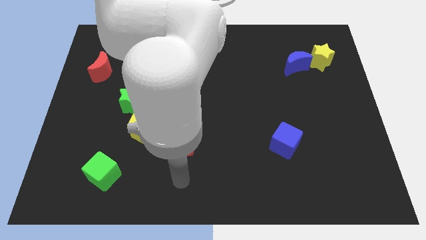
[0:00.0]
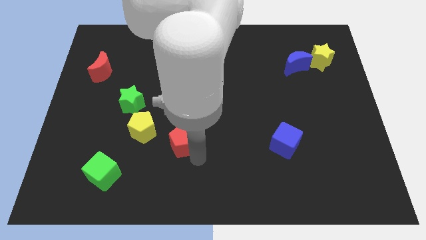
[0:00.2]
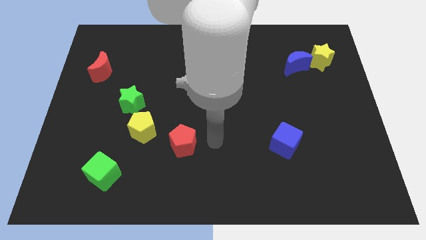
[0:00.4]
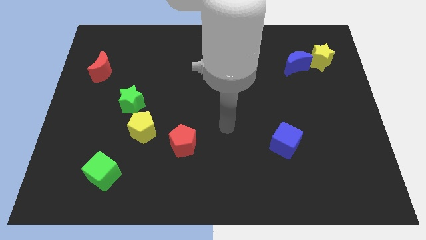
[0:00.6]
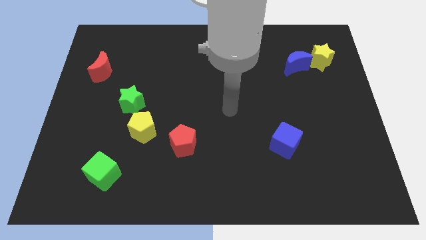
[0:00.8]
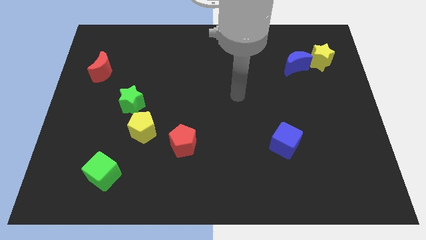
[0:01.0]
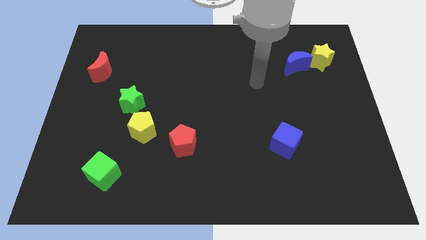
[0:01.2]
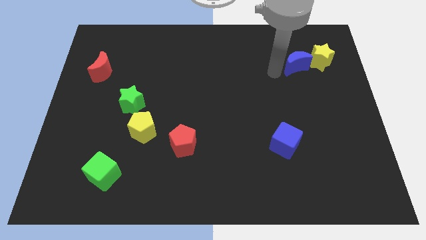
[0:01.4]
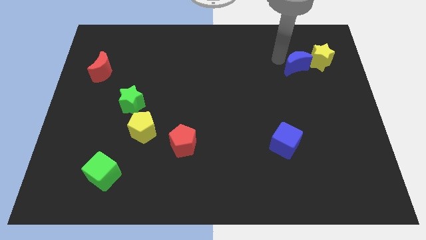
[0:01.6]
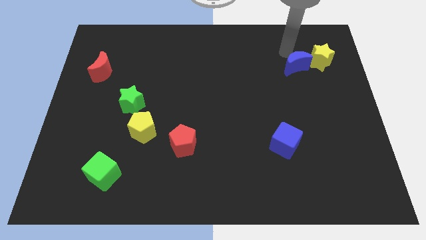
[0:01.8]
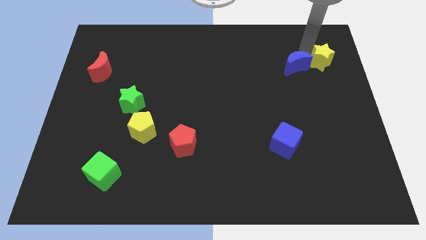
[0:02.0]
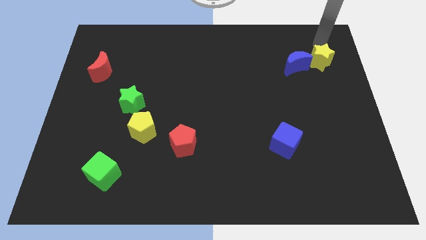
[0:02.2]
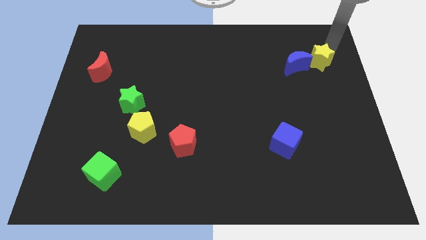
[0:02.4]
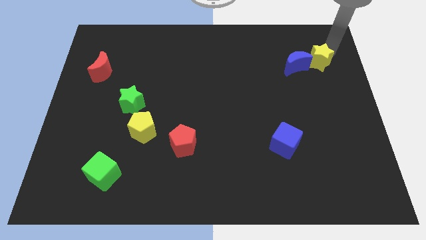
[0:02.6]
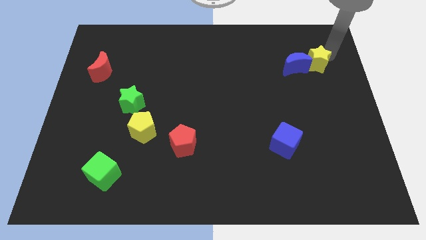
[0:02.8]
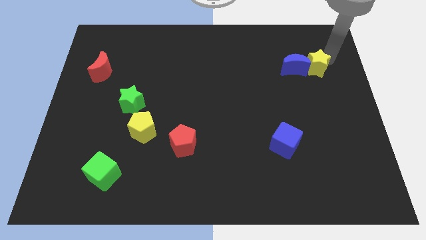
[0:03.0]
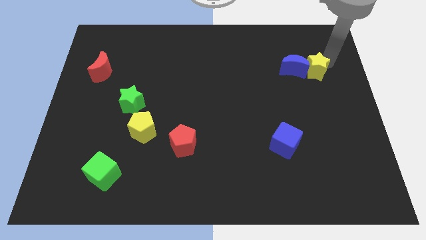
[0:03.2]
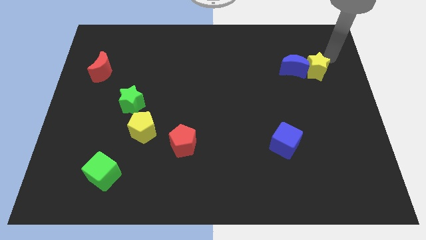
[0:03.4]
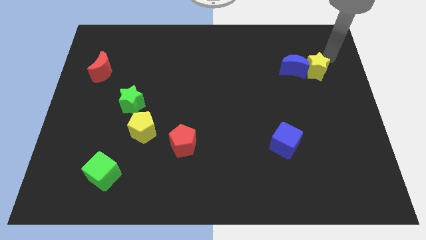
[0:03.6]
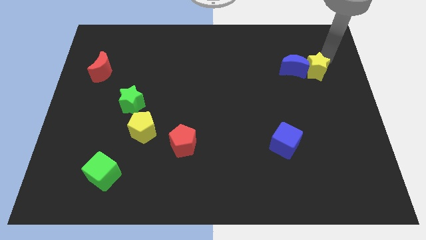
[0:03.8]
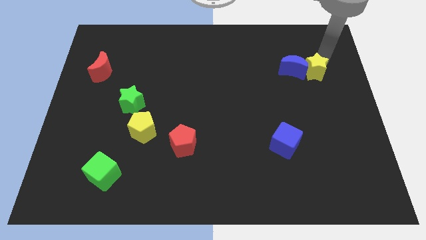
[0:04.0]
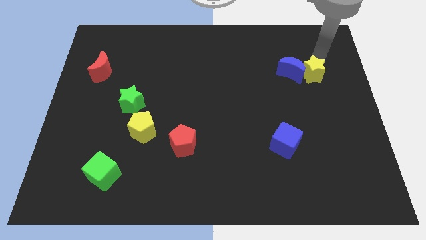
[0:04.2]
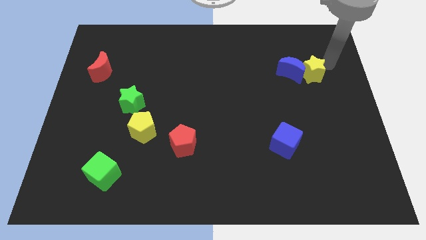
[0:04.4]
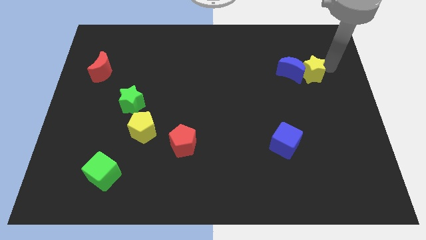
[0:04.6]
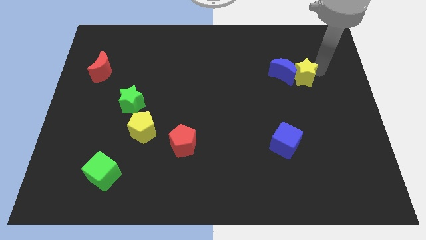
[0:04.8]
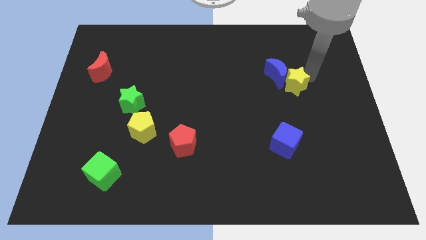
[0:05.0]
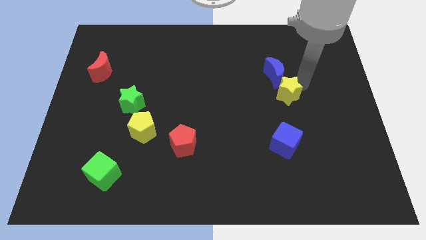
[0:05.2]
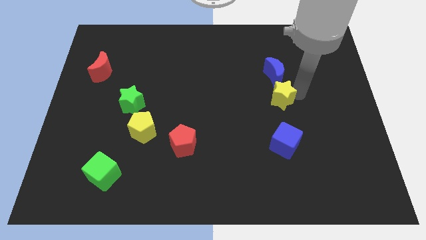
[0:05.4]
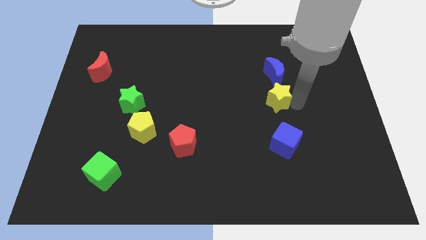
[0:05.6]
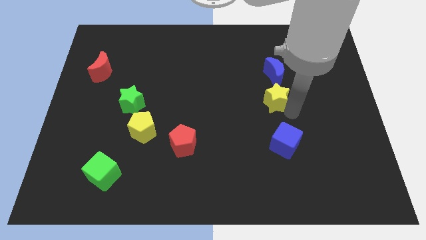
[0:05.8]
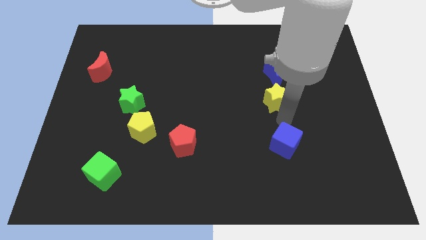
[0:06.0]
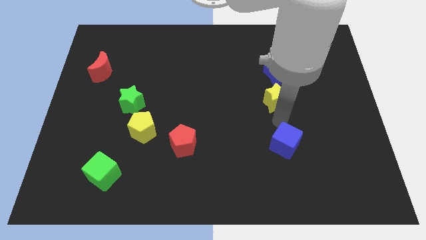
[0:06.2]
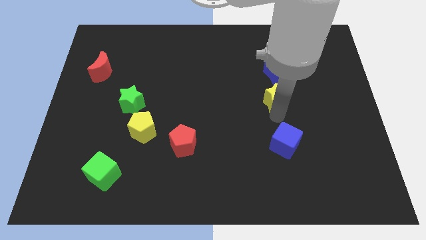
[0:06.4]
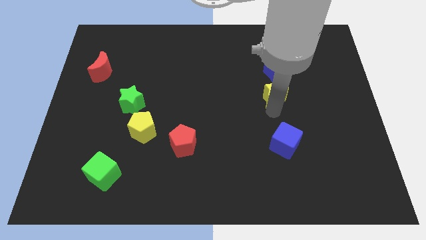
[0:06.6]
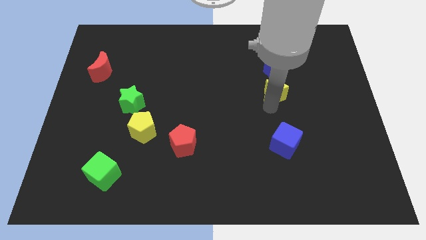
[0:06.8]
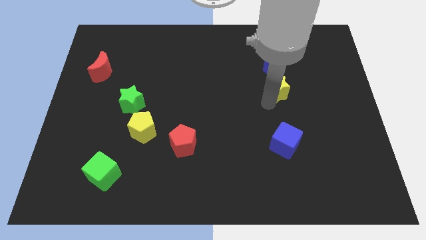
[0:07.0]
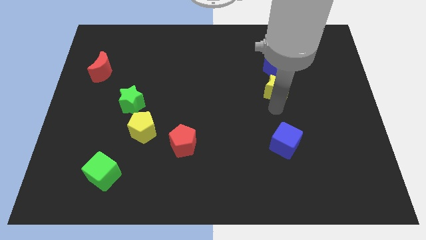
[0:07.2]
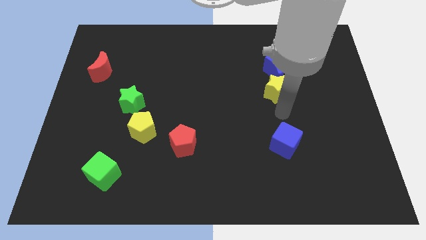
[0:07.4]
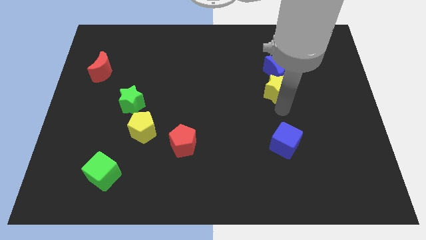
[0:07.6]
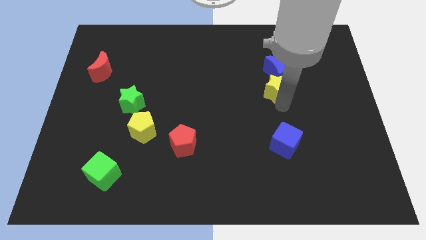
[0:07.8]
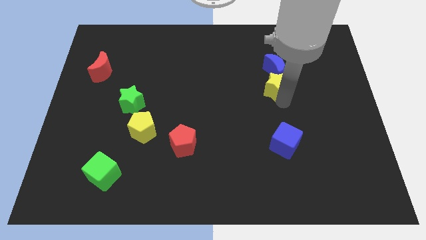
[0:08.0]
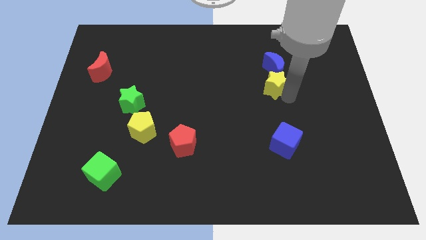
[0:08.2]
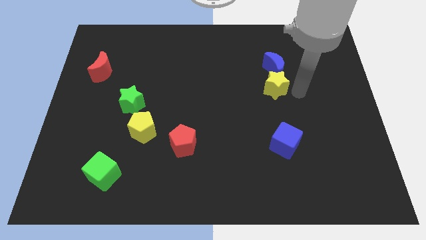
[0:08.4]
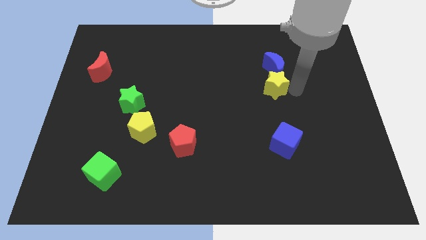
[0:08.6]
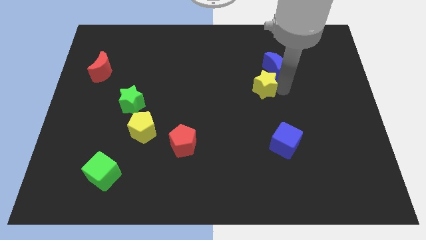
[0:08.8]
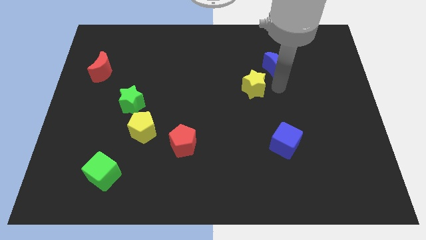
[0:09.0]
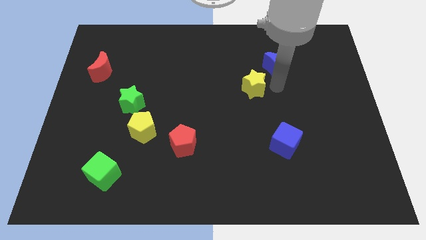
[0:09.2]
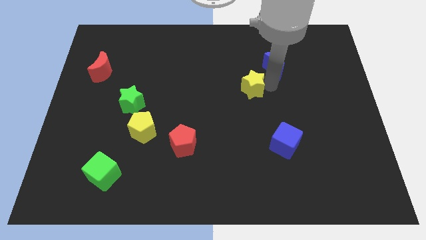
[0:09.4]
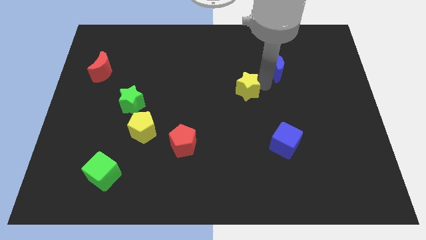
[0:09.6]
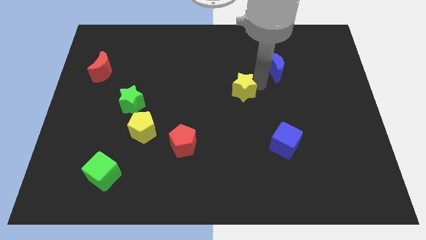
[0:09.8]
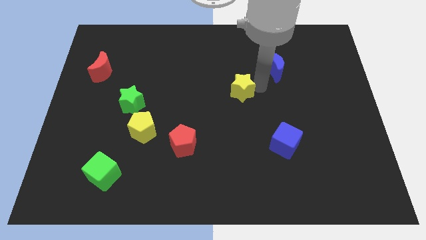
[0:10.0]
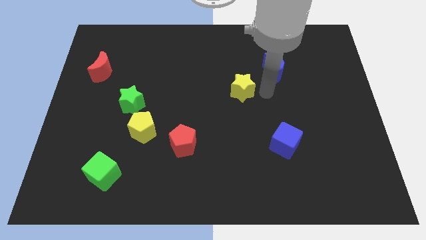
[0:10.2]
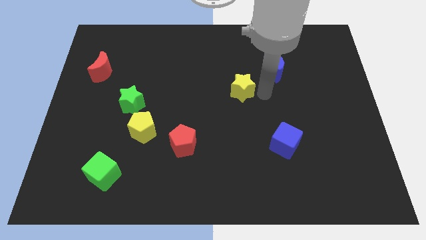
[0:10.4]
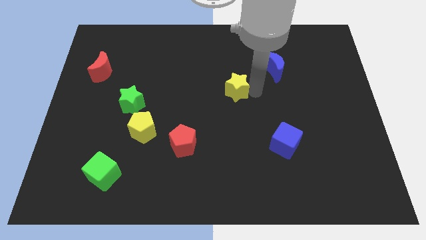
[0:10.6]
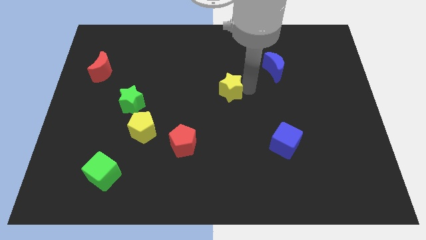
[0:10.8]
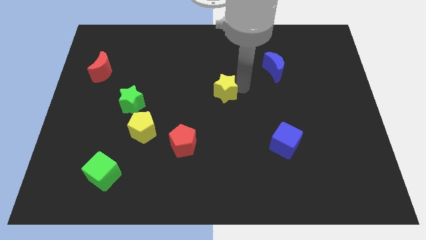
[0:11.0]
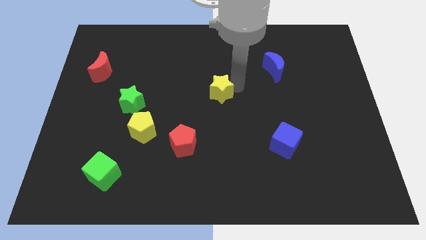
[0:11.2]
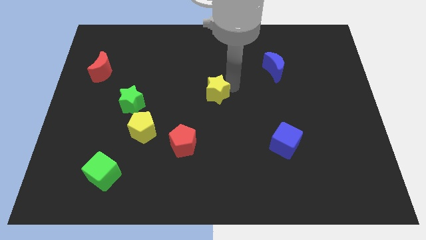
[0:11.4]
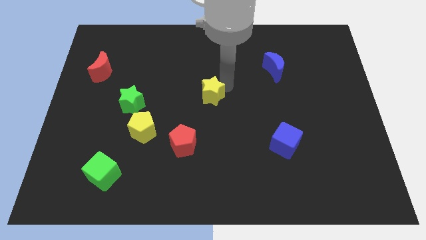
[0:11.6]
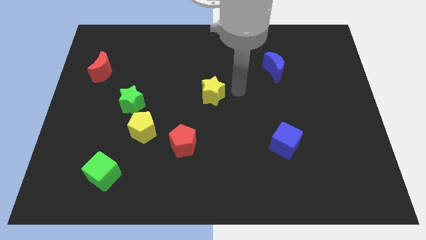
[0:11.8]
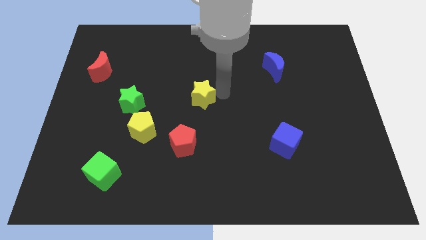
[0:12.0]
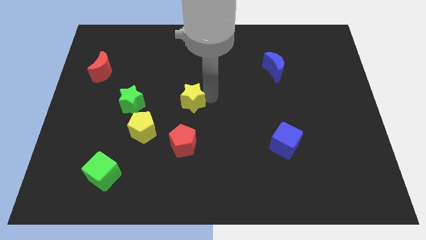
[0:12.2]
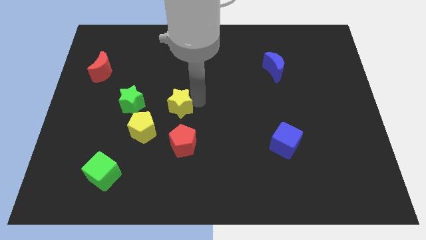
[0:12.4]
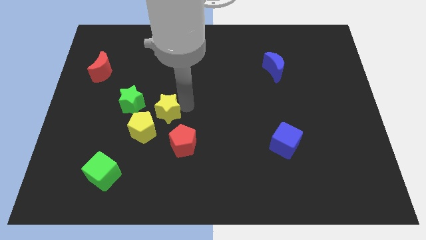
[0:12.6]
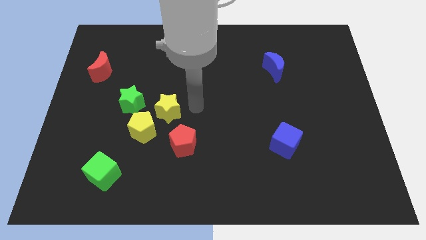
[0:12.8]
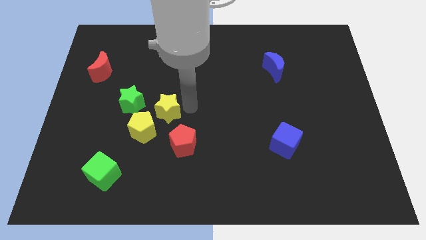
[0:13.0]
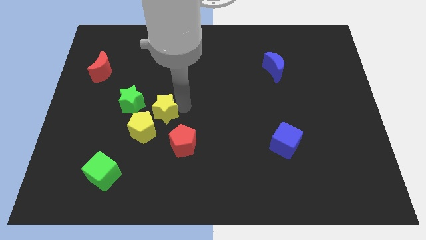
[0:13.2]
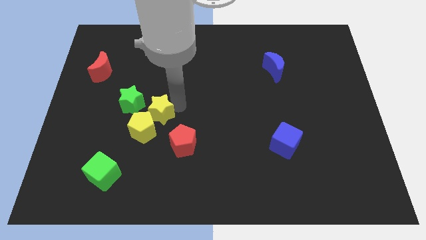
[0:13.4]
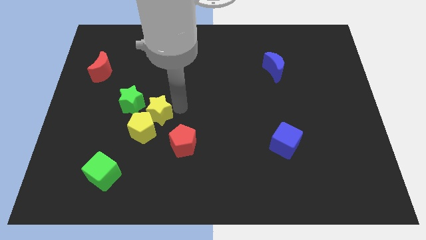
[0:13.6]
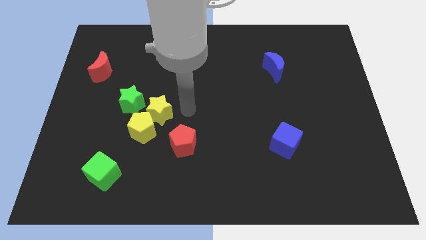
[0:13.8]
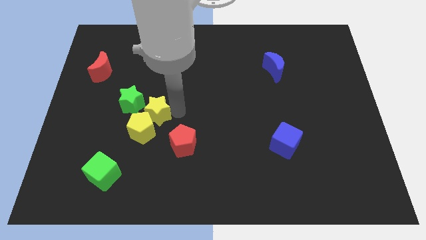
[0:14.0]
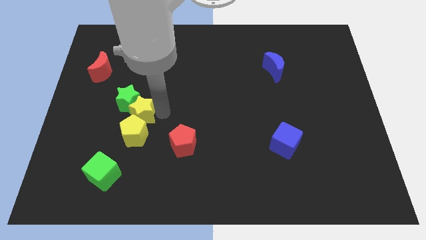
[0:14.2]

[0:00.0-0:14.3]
slide the yellow star to the bottom of the green star

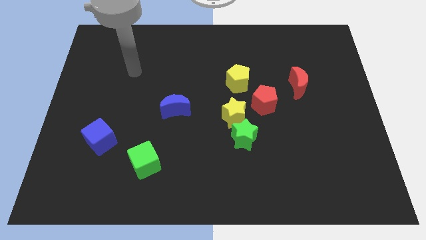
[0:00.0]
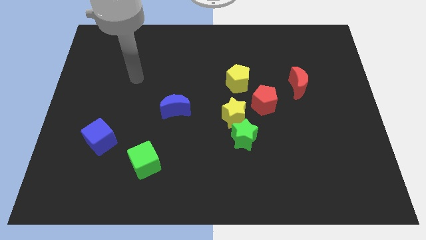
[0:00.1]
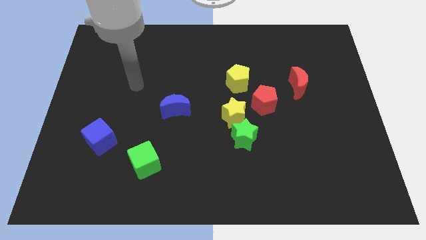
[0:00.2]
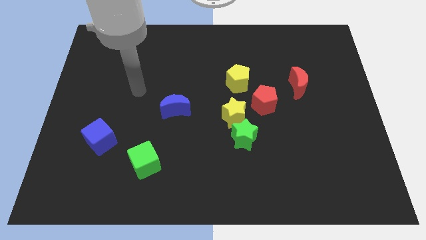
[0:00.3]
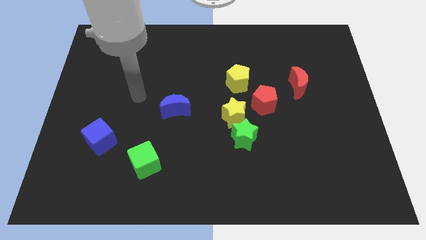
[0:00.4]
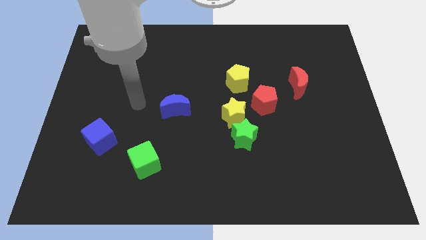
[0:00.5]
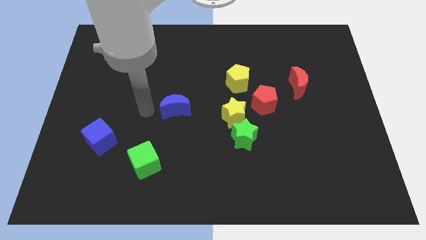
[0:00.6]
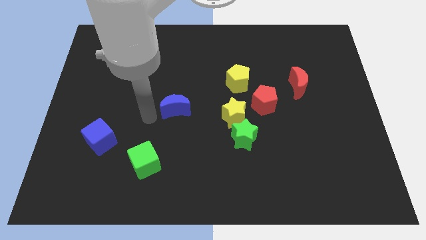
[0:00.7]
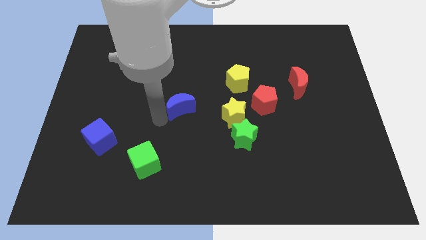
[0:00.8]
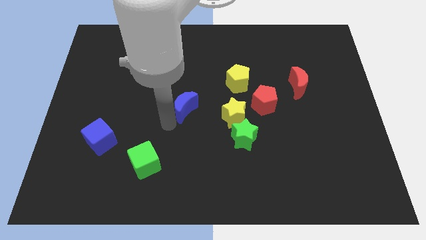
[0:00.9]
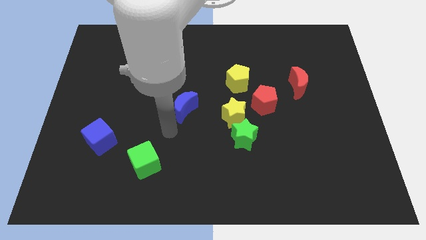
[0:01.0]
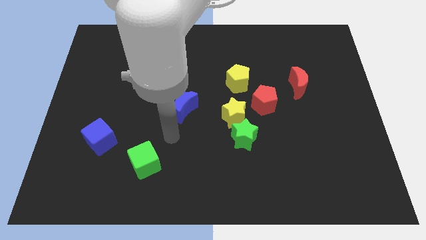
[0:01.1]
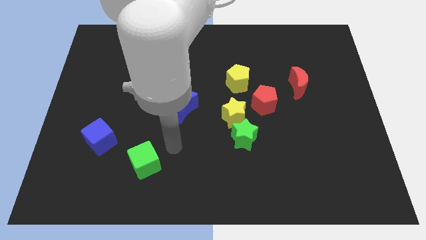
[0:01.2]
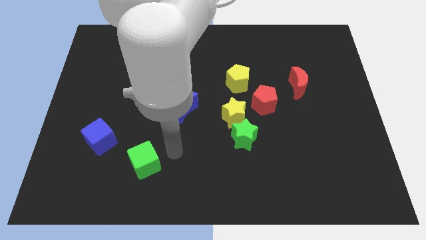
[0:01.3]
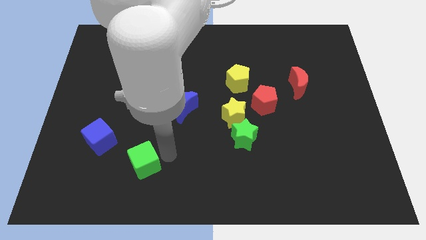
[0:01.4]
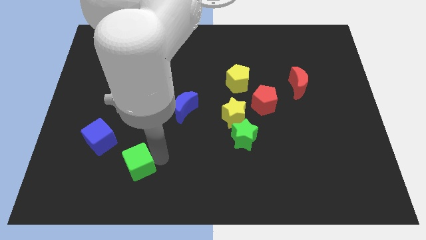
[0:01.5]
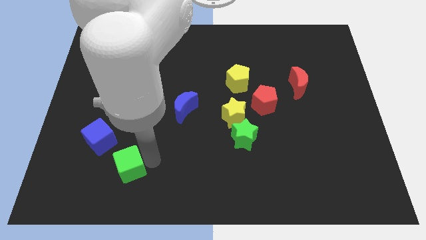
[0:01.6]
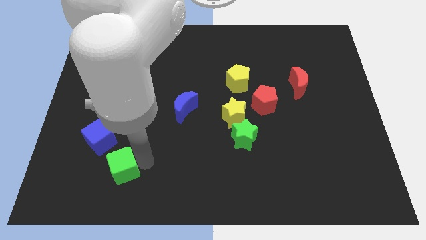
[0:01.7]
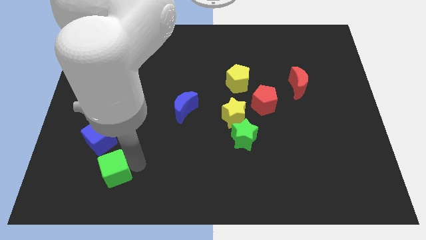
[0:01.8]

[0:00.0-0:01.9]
push the green cube to the bottom side of the blue cube
